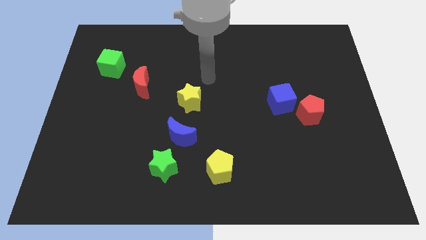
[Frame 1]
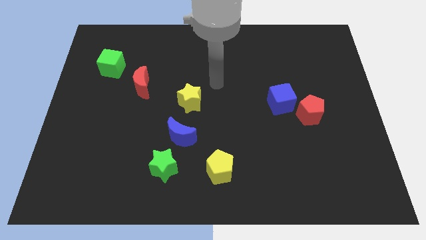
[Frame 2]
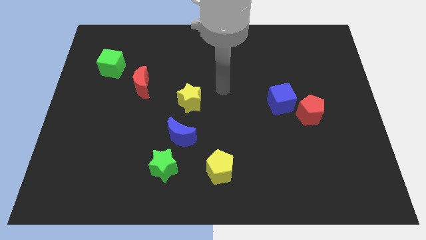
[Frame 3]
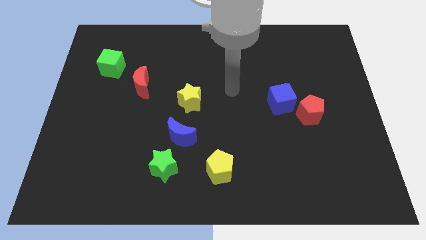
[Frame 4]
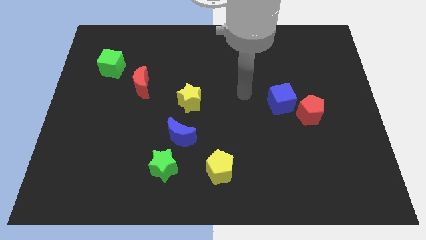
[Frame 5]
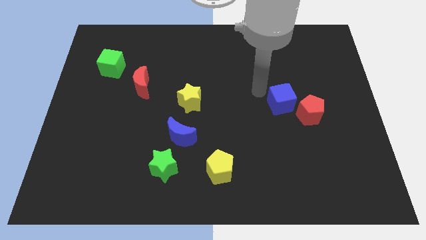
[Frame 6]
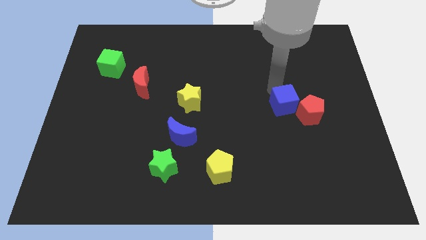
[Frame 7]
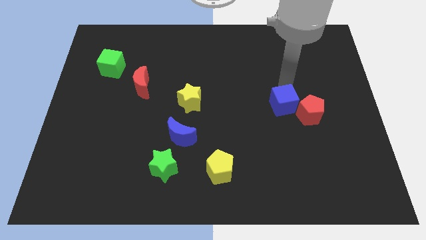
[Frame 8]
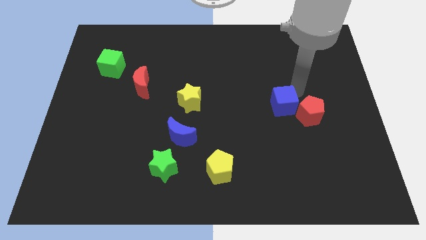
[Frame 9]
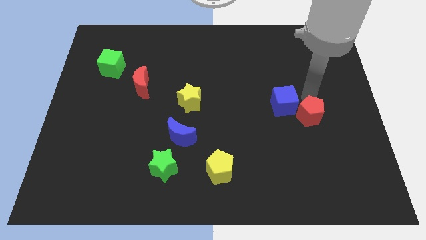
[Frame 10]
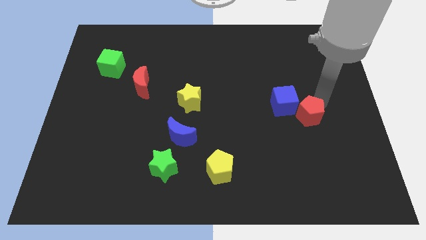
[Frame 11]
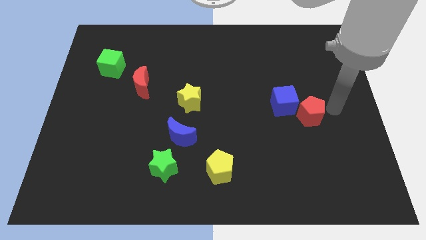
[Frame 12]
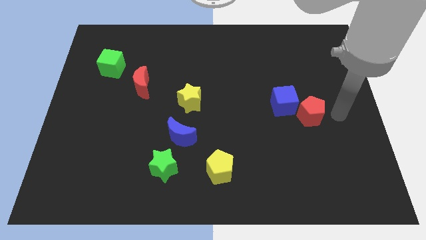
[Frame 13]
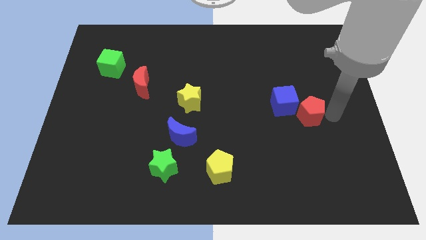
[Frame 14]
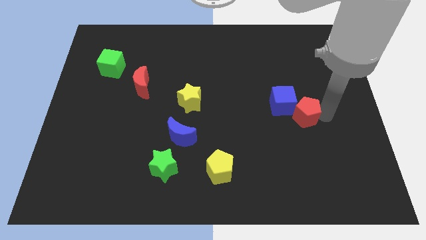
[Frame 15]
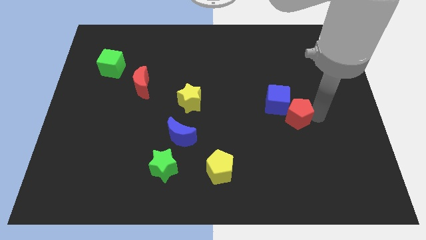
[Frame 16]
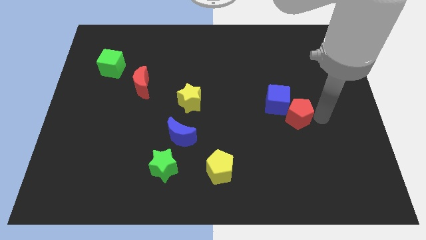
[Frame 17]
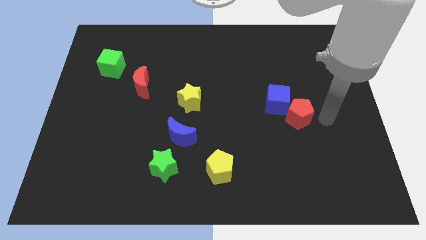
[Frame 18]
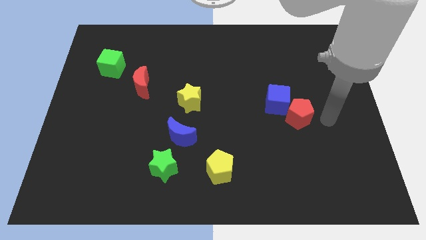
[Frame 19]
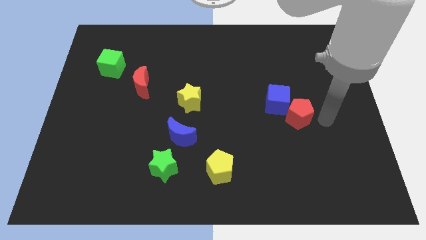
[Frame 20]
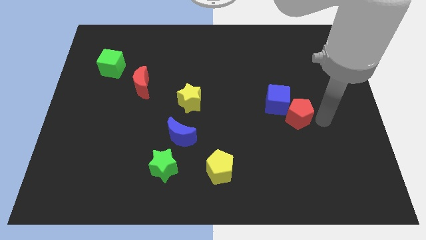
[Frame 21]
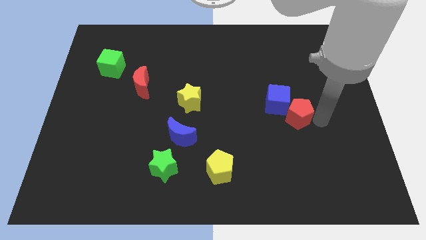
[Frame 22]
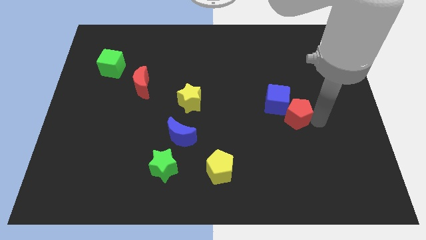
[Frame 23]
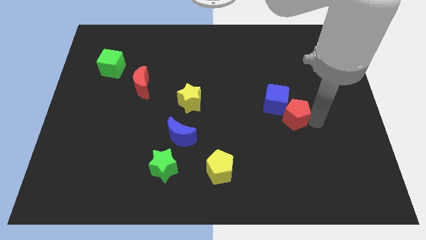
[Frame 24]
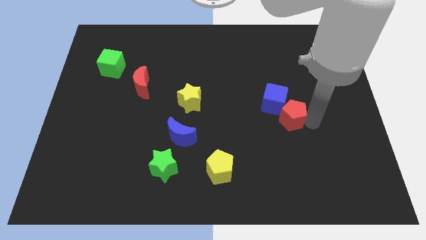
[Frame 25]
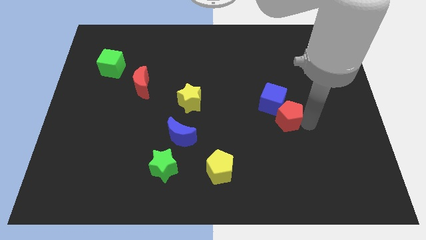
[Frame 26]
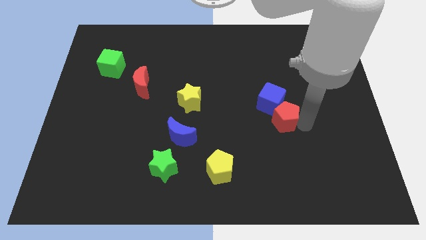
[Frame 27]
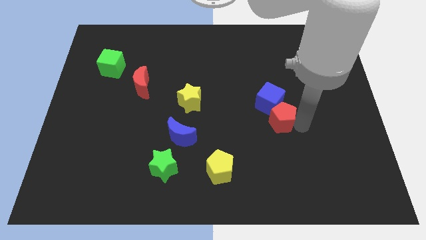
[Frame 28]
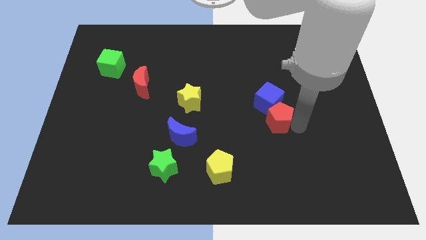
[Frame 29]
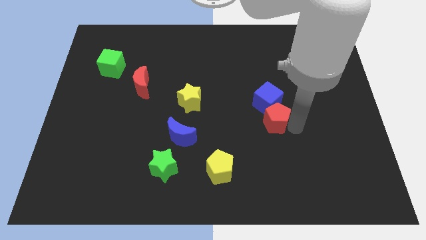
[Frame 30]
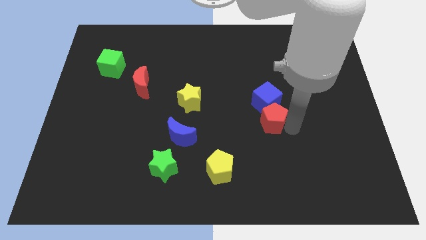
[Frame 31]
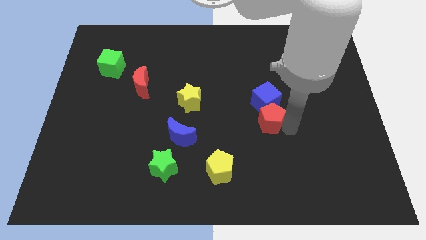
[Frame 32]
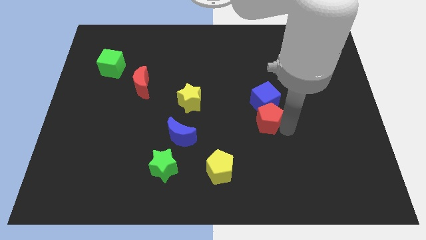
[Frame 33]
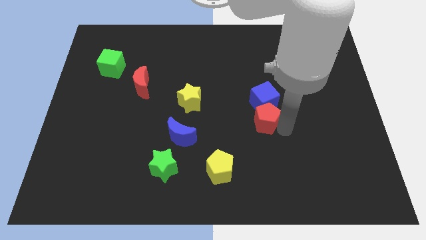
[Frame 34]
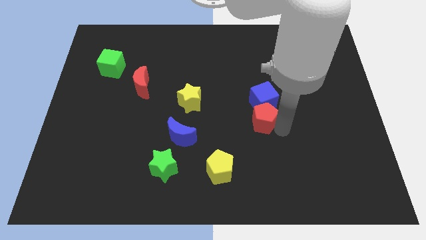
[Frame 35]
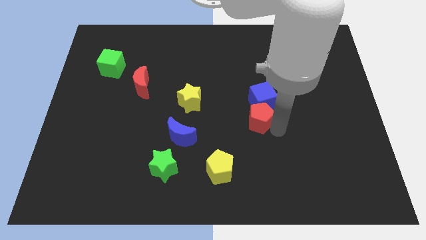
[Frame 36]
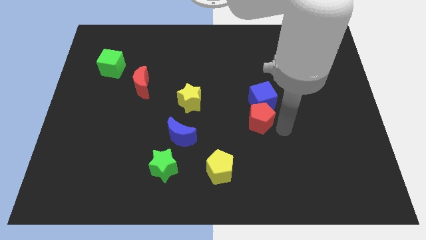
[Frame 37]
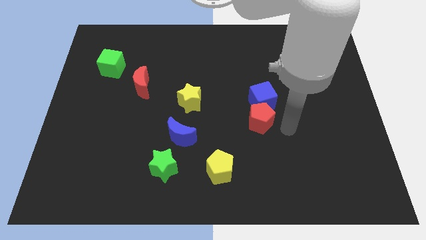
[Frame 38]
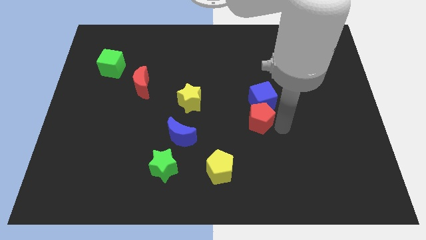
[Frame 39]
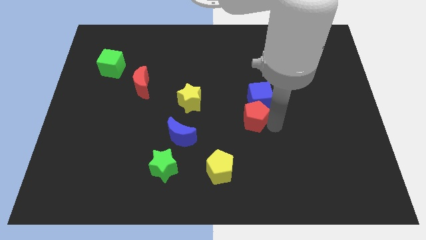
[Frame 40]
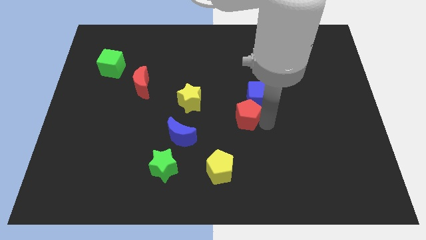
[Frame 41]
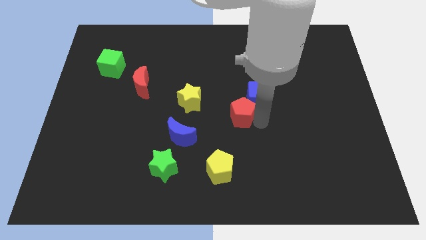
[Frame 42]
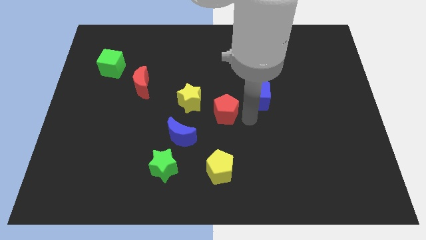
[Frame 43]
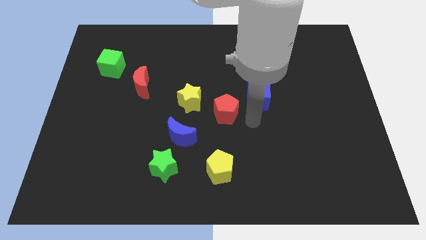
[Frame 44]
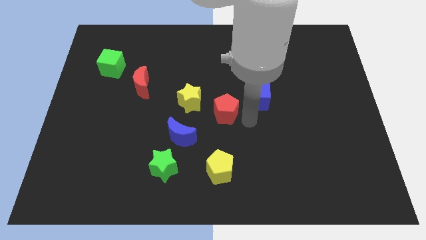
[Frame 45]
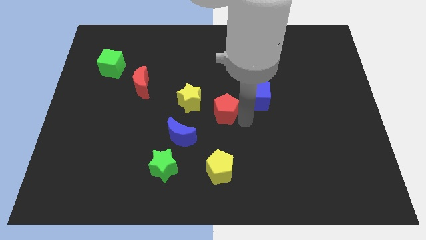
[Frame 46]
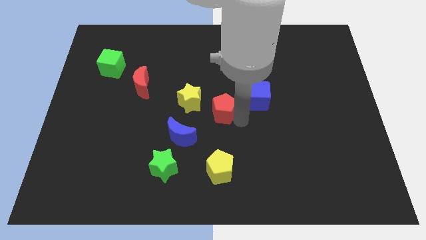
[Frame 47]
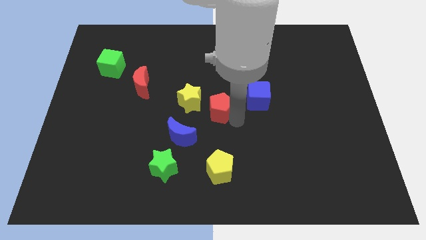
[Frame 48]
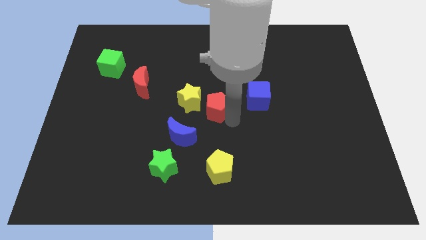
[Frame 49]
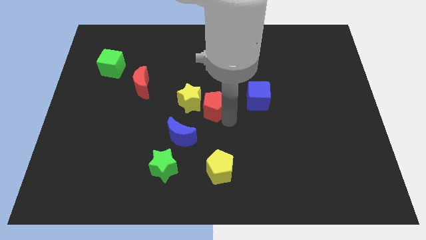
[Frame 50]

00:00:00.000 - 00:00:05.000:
slide the red pentagon next to the yellow star

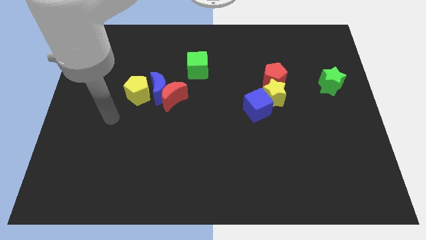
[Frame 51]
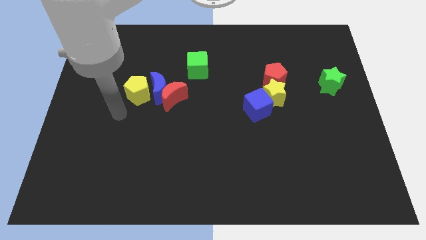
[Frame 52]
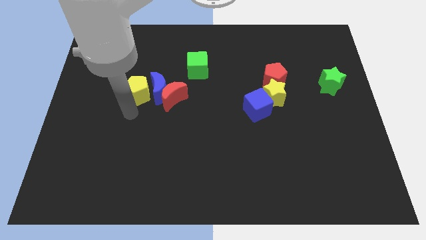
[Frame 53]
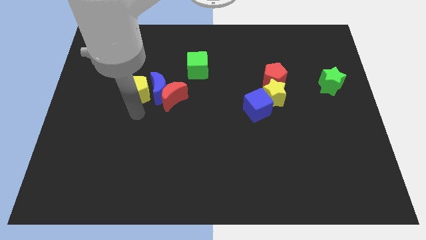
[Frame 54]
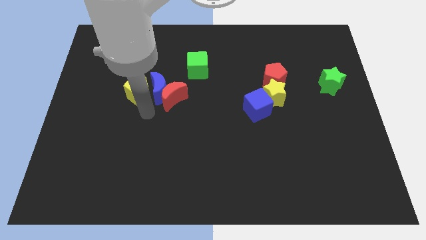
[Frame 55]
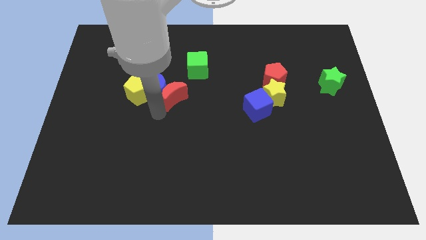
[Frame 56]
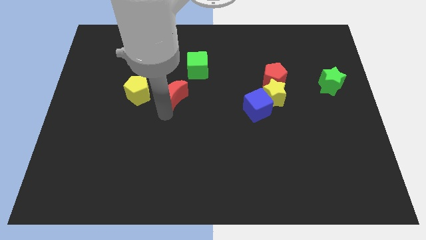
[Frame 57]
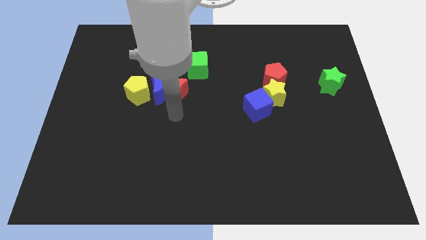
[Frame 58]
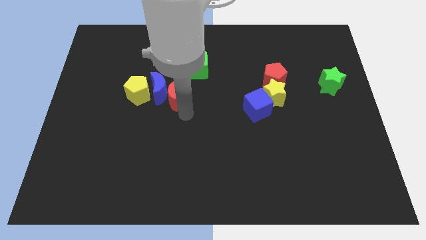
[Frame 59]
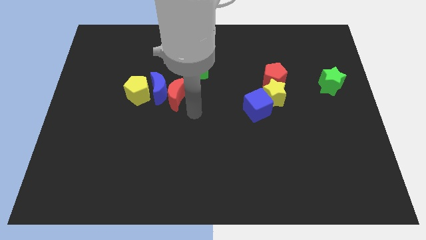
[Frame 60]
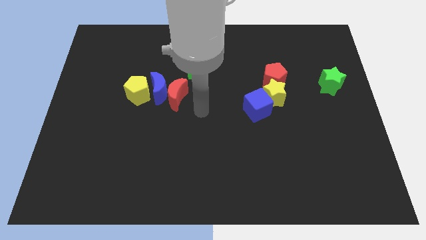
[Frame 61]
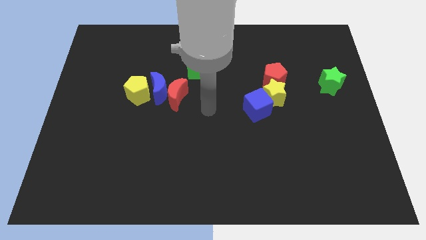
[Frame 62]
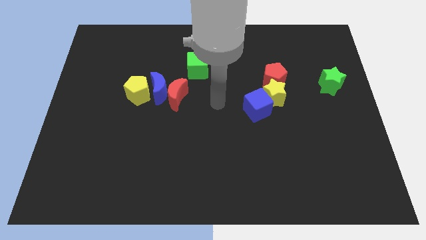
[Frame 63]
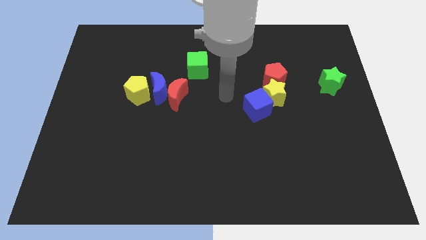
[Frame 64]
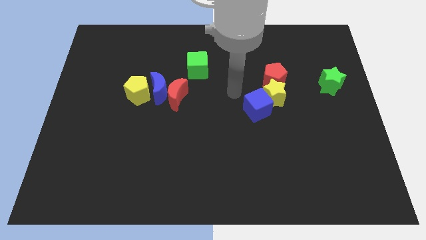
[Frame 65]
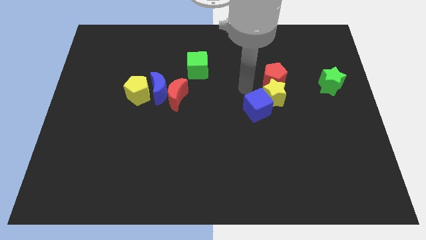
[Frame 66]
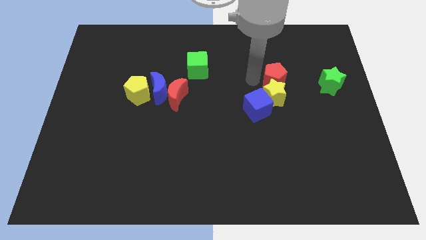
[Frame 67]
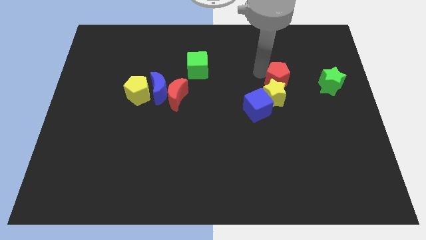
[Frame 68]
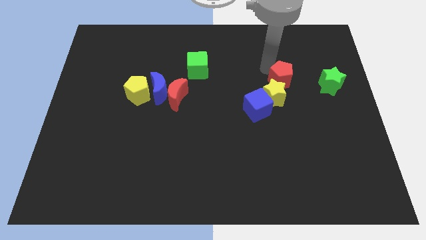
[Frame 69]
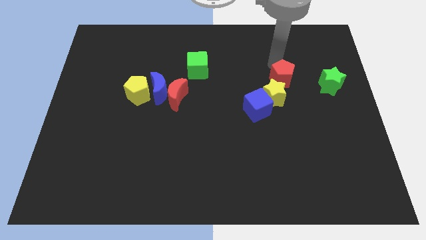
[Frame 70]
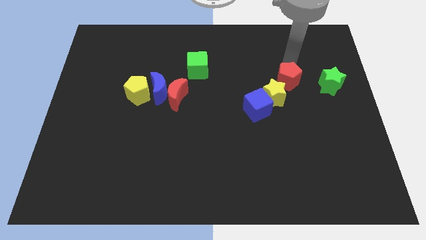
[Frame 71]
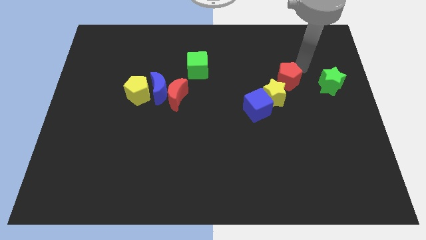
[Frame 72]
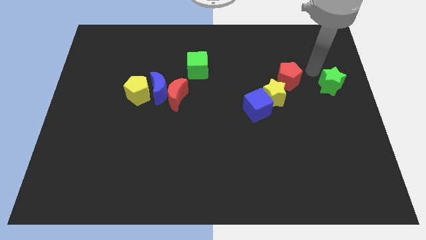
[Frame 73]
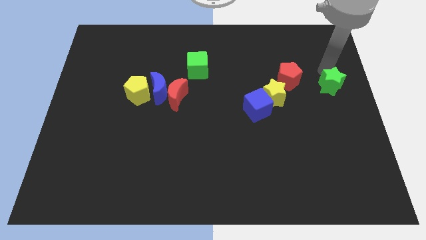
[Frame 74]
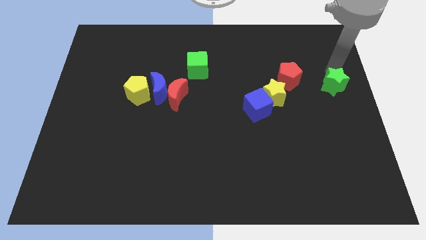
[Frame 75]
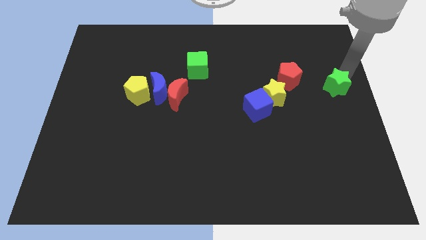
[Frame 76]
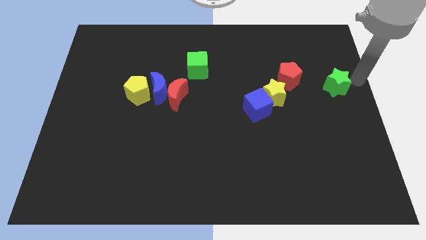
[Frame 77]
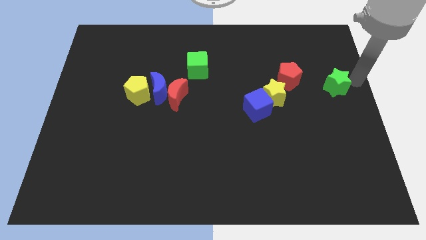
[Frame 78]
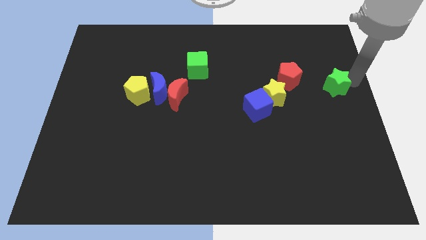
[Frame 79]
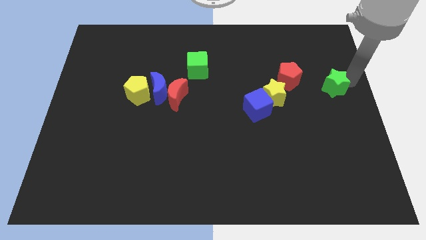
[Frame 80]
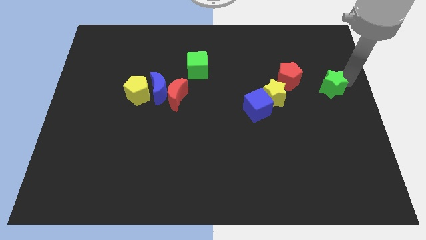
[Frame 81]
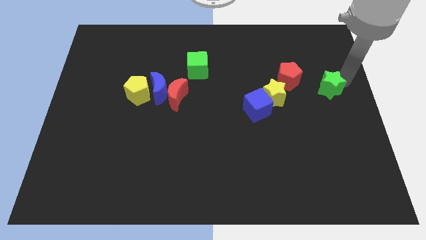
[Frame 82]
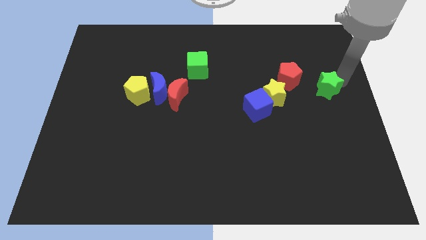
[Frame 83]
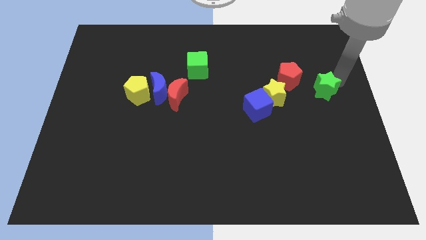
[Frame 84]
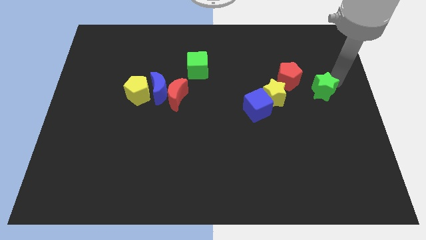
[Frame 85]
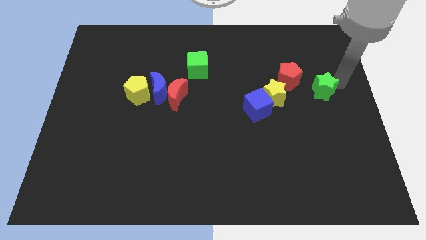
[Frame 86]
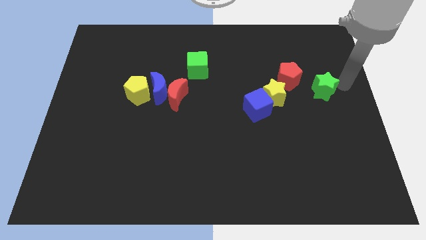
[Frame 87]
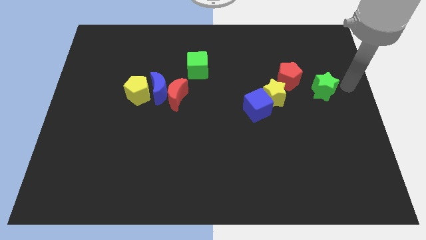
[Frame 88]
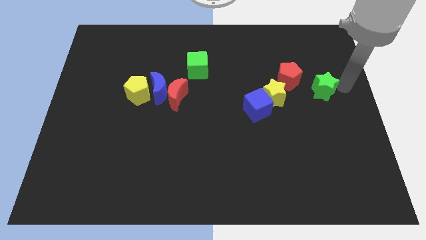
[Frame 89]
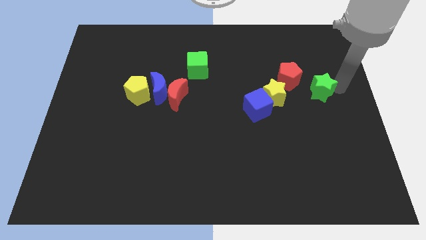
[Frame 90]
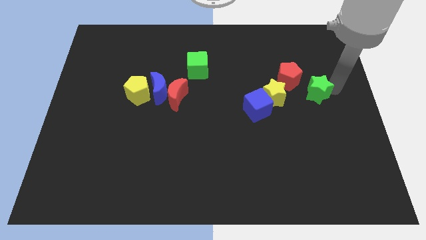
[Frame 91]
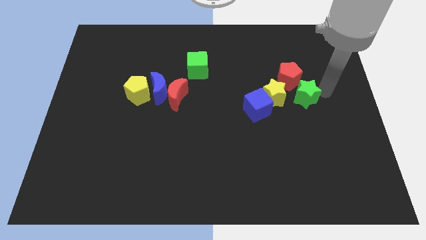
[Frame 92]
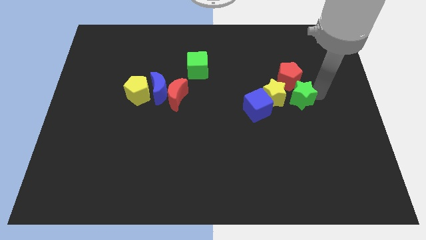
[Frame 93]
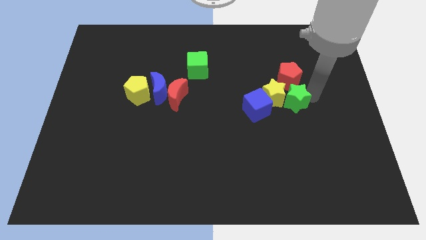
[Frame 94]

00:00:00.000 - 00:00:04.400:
slide the green star to the yellow star
